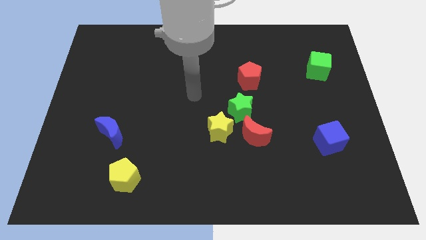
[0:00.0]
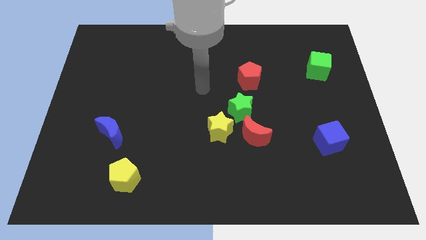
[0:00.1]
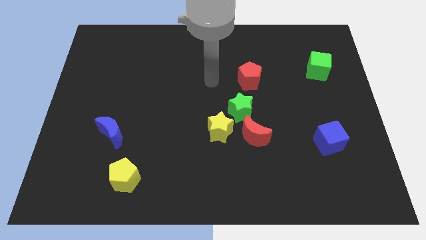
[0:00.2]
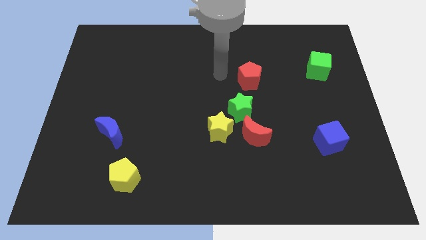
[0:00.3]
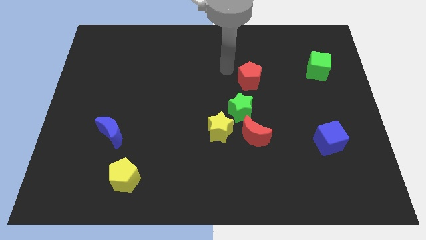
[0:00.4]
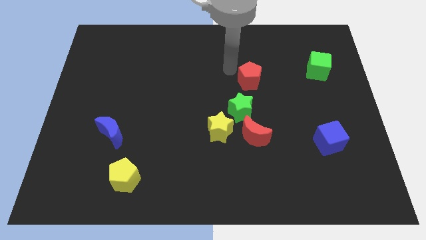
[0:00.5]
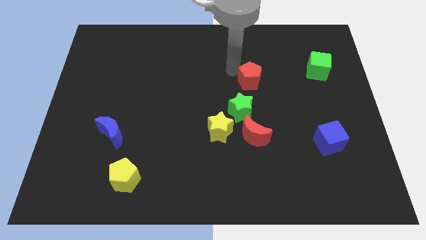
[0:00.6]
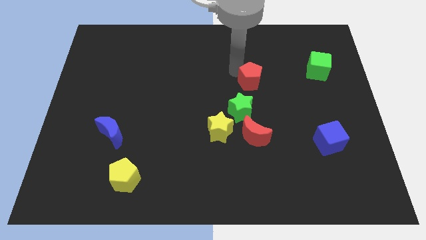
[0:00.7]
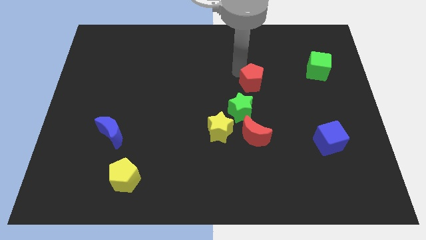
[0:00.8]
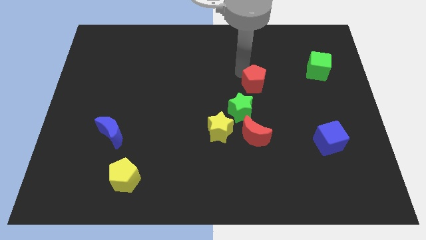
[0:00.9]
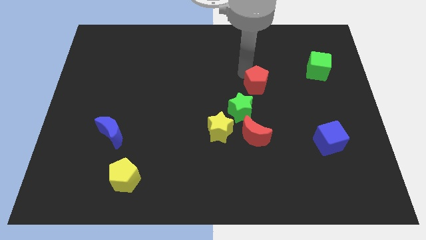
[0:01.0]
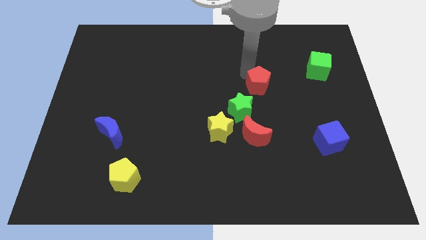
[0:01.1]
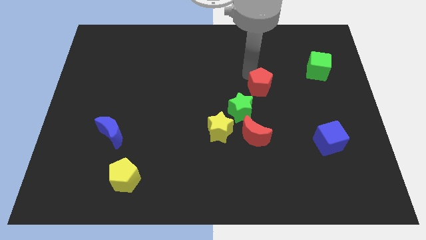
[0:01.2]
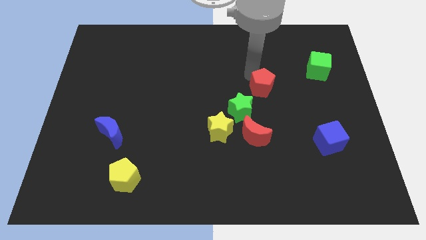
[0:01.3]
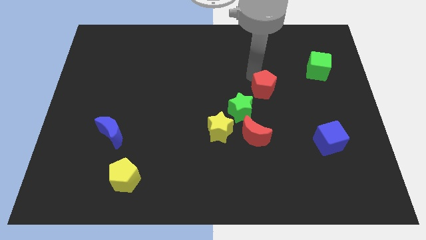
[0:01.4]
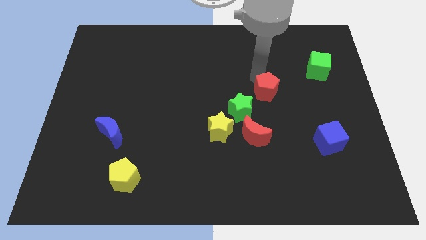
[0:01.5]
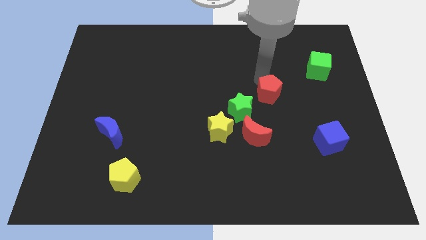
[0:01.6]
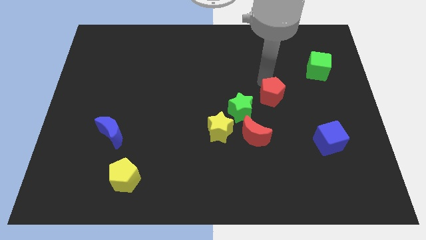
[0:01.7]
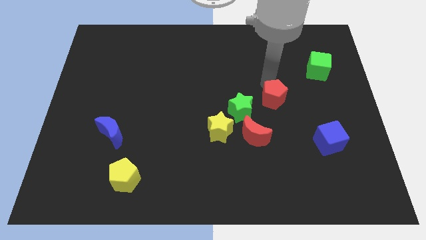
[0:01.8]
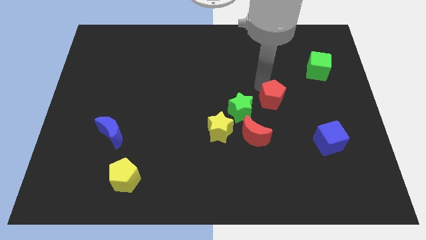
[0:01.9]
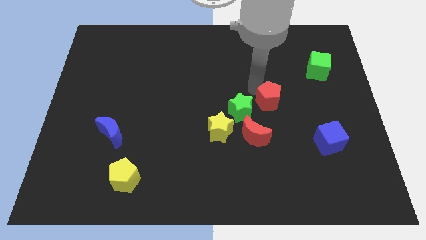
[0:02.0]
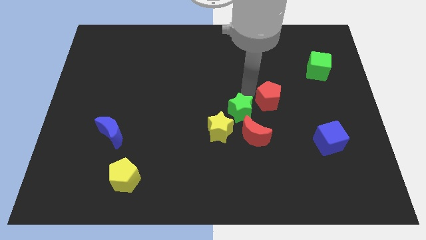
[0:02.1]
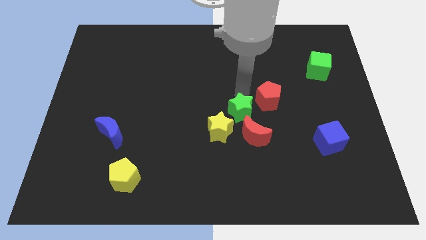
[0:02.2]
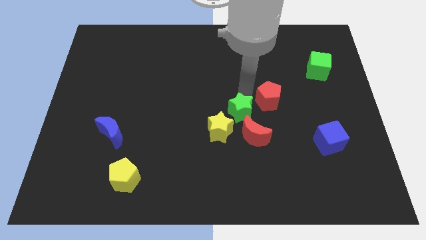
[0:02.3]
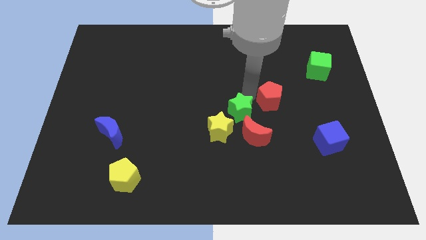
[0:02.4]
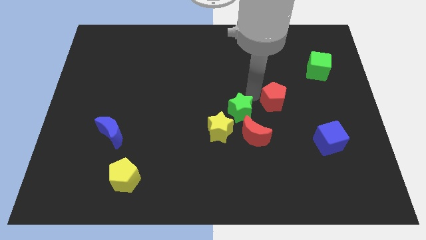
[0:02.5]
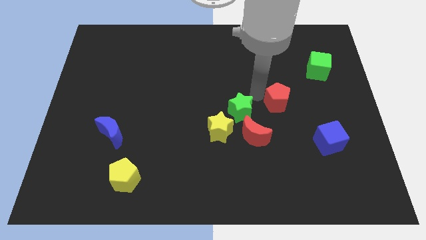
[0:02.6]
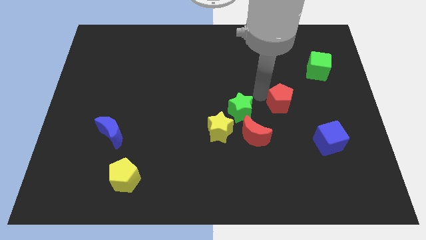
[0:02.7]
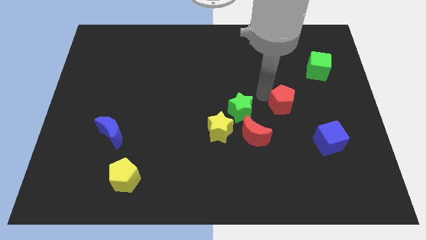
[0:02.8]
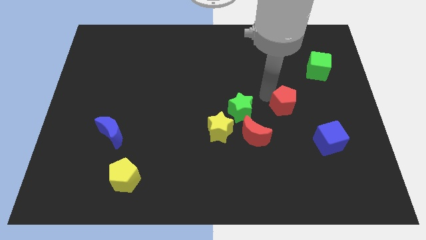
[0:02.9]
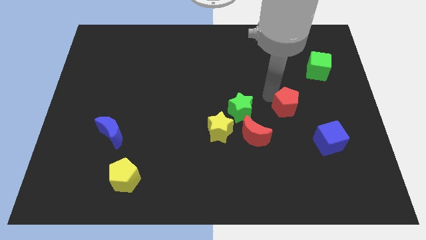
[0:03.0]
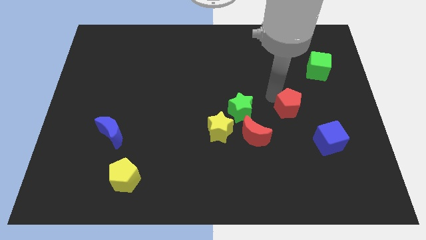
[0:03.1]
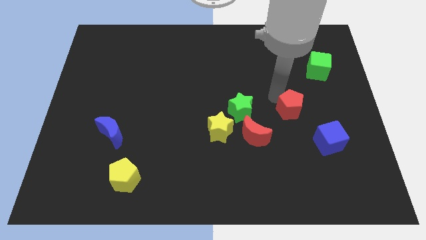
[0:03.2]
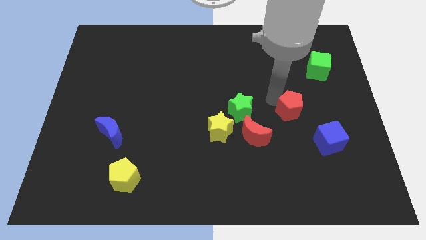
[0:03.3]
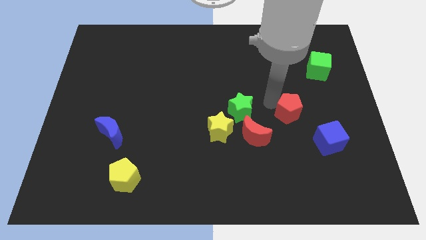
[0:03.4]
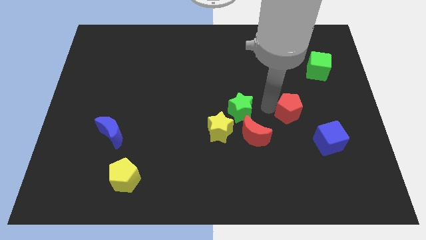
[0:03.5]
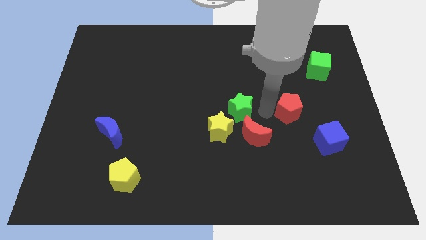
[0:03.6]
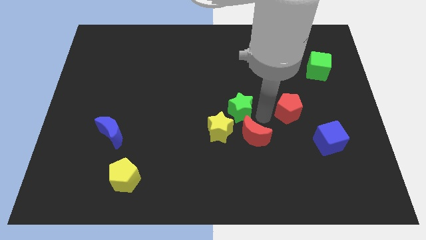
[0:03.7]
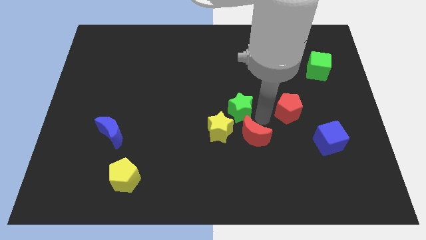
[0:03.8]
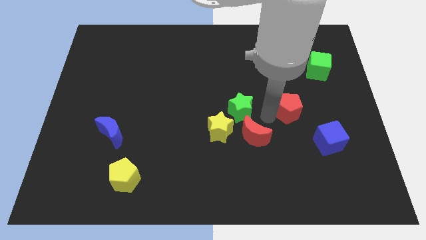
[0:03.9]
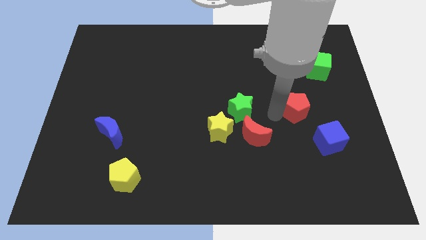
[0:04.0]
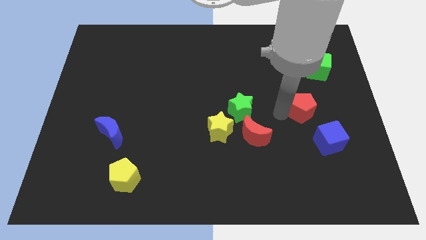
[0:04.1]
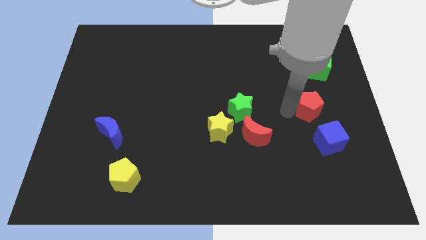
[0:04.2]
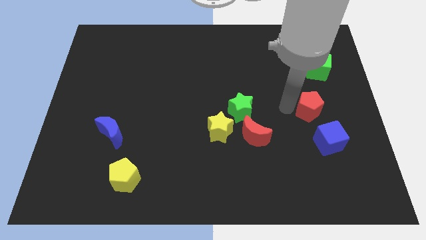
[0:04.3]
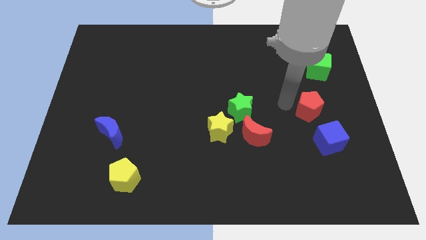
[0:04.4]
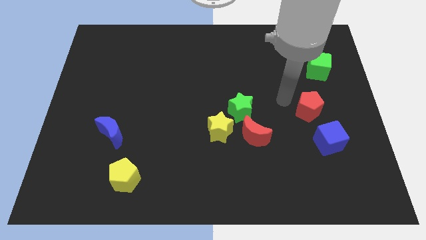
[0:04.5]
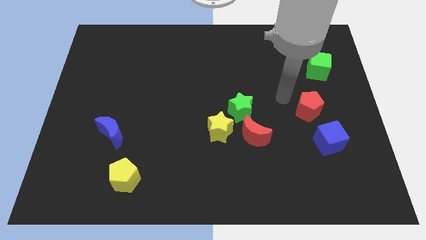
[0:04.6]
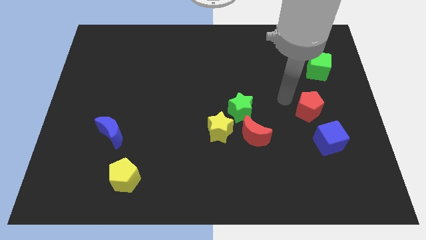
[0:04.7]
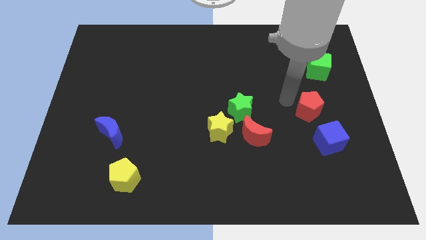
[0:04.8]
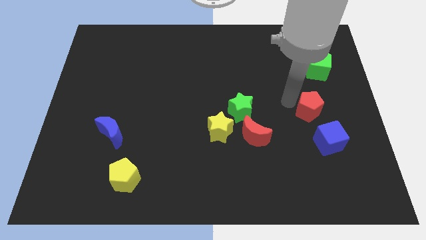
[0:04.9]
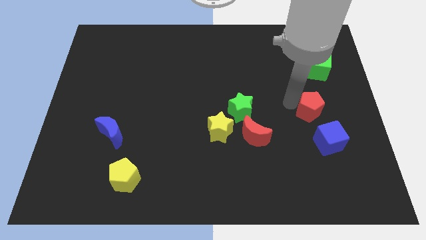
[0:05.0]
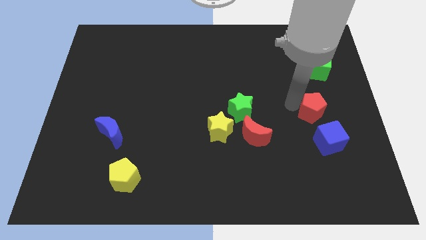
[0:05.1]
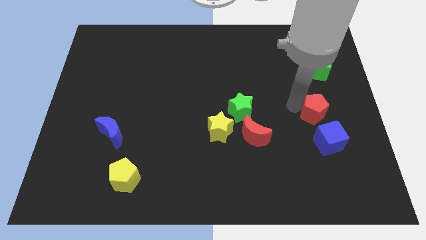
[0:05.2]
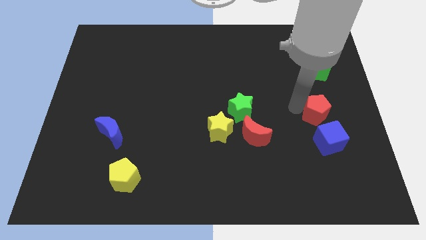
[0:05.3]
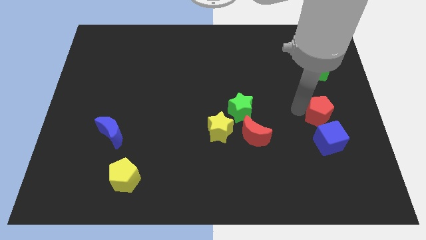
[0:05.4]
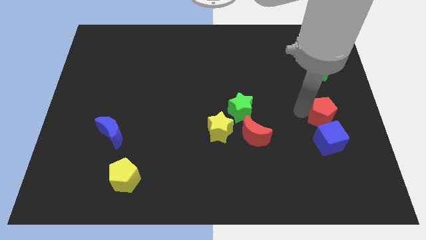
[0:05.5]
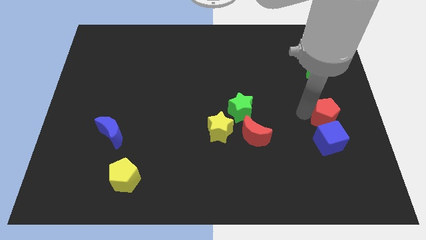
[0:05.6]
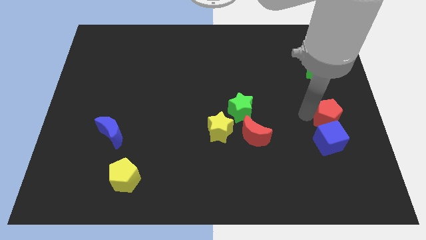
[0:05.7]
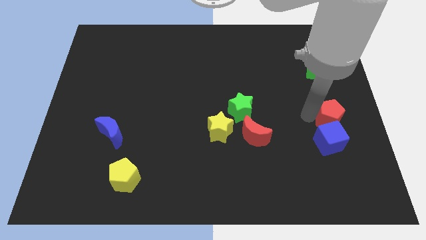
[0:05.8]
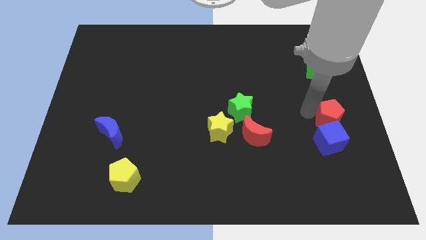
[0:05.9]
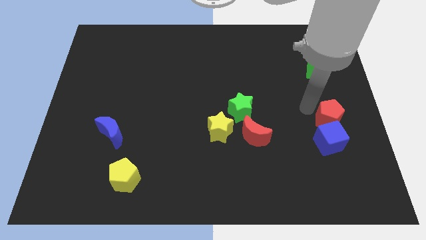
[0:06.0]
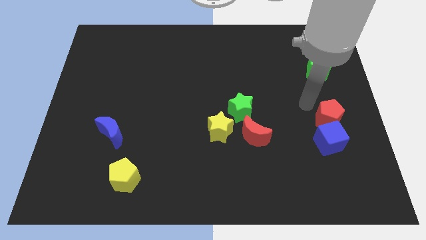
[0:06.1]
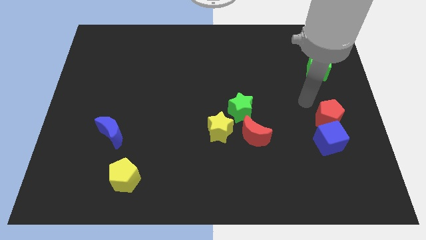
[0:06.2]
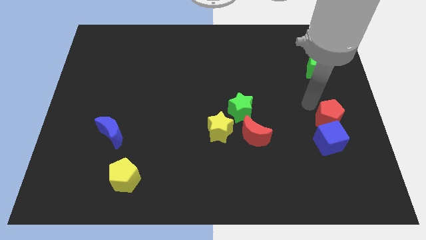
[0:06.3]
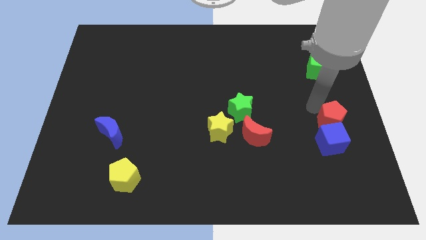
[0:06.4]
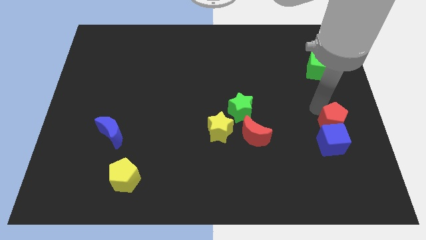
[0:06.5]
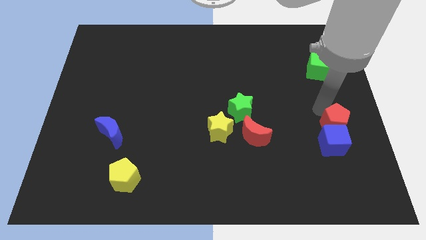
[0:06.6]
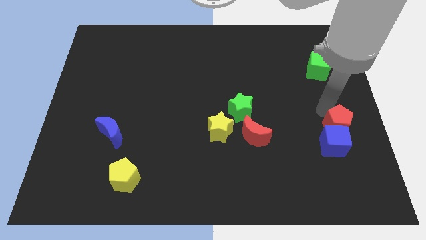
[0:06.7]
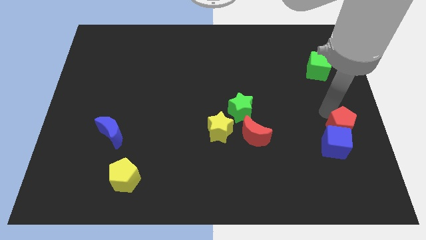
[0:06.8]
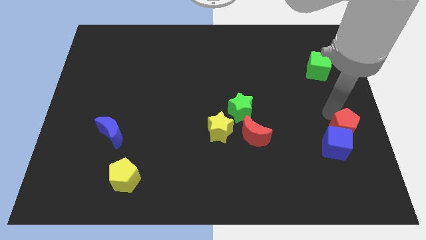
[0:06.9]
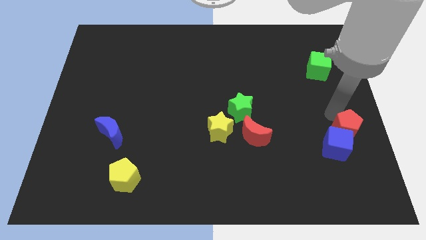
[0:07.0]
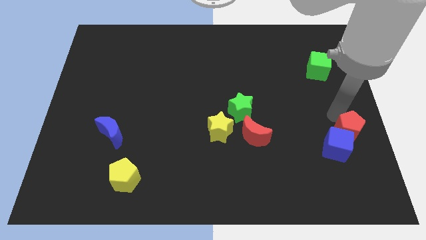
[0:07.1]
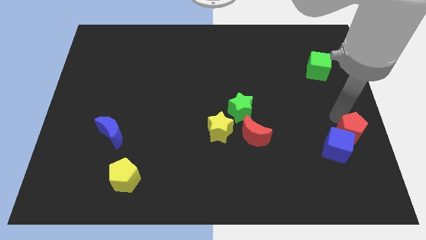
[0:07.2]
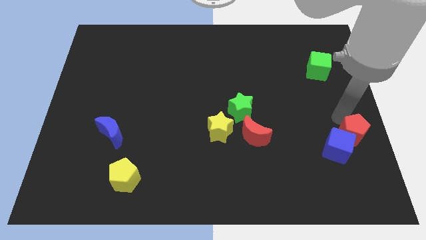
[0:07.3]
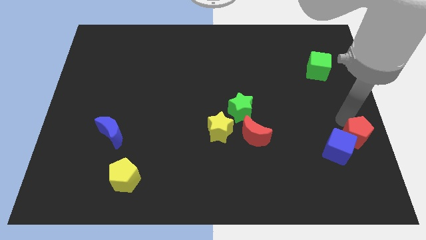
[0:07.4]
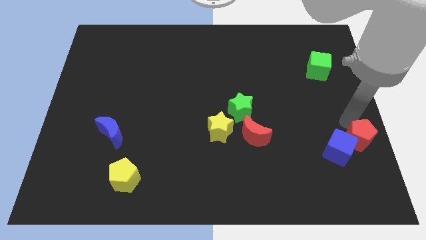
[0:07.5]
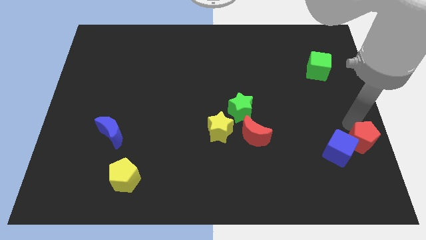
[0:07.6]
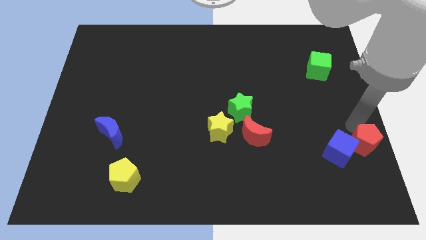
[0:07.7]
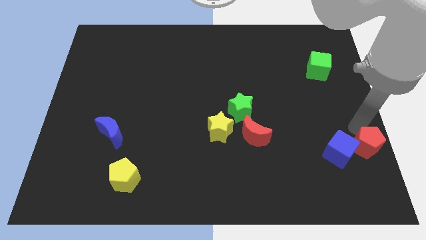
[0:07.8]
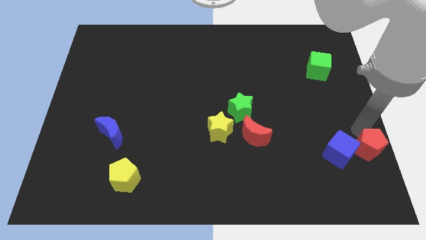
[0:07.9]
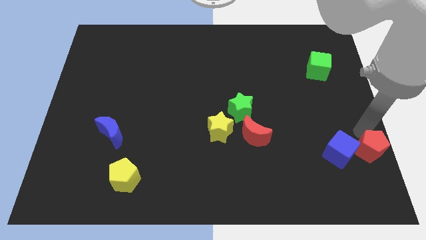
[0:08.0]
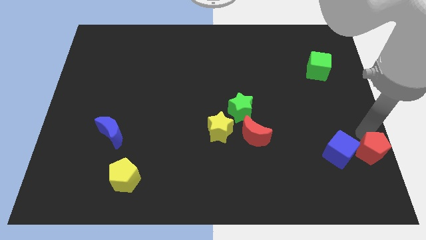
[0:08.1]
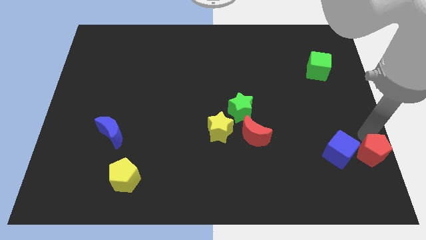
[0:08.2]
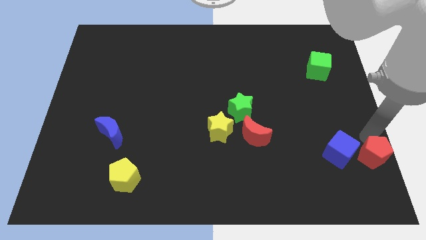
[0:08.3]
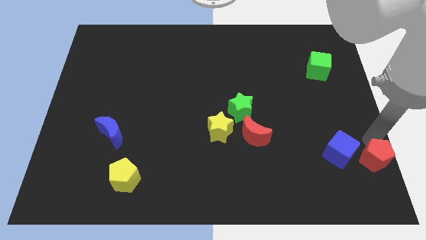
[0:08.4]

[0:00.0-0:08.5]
push the red pentagon to the bottom right
